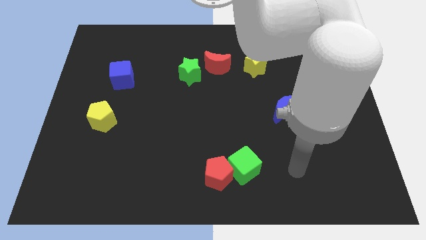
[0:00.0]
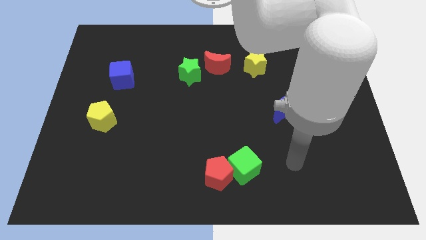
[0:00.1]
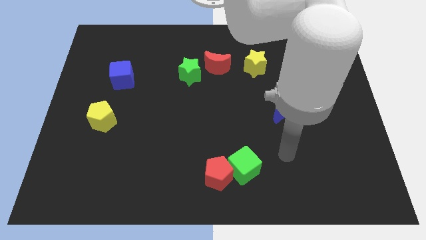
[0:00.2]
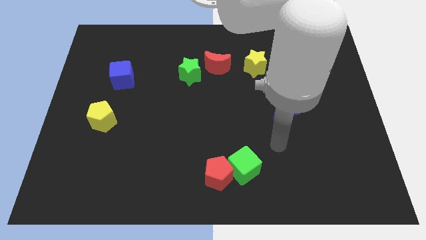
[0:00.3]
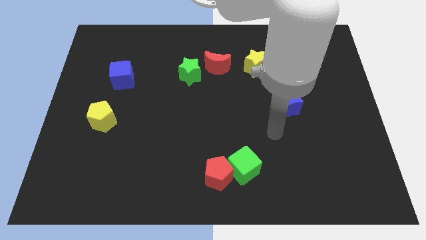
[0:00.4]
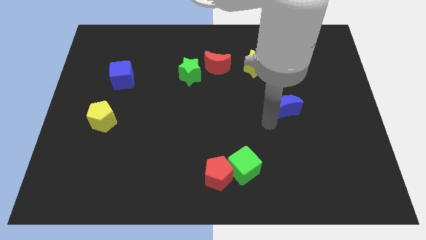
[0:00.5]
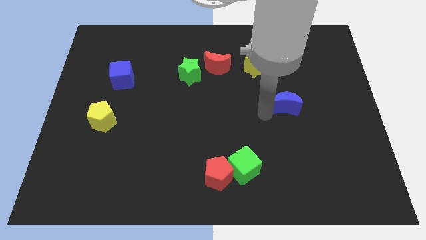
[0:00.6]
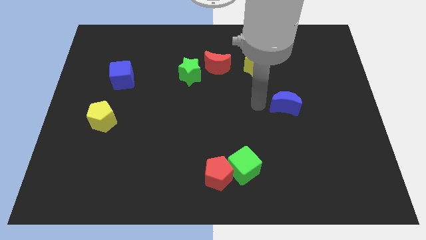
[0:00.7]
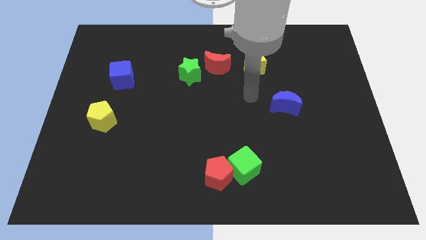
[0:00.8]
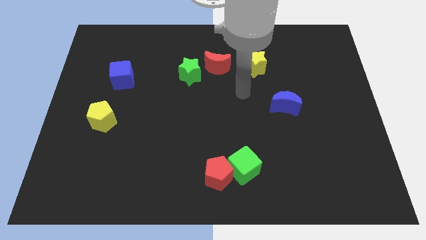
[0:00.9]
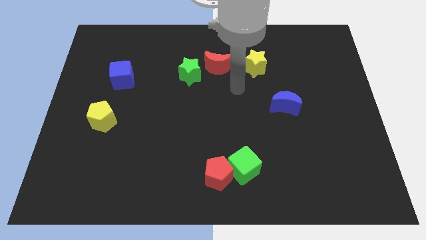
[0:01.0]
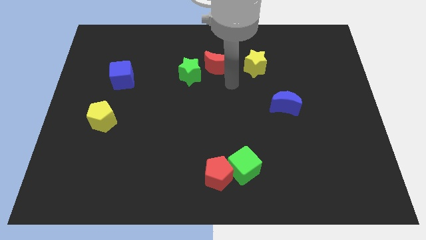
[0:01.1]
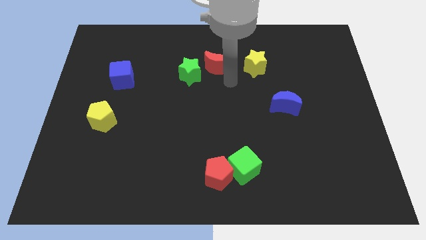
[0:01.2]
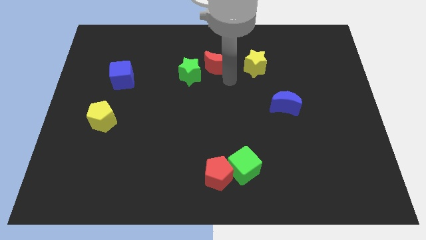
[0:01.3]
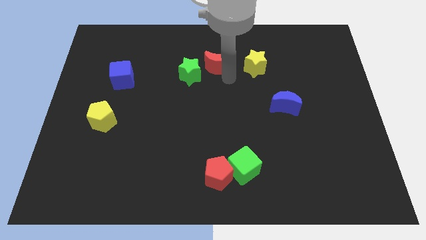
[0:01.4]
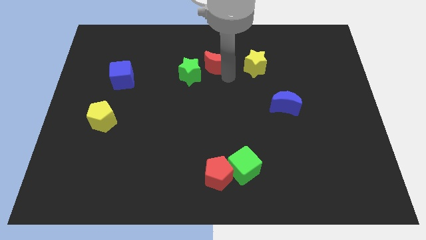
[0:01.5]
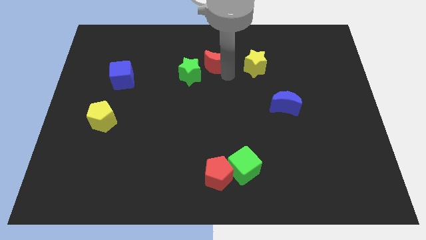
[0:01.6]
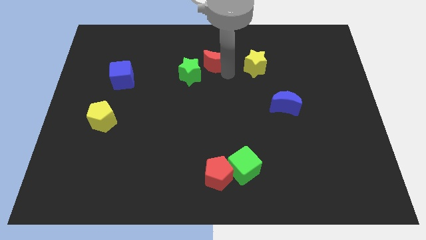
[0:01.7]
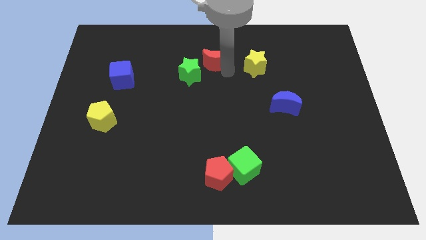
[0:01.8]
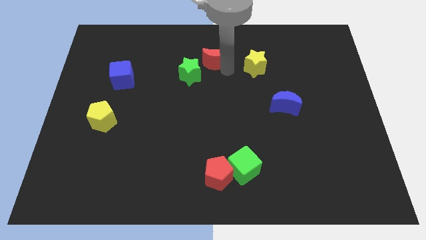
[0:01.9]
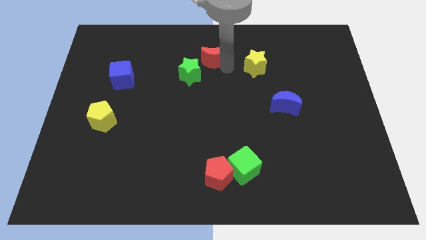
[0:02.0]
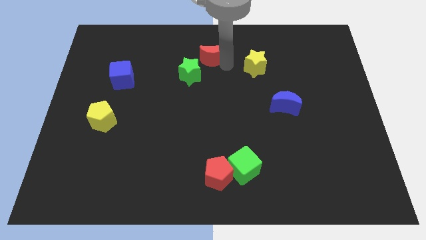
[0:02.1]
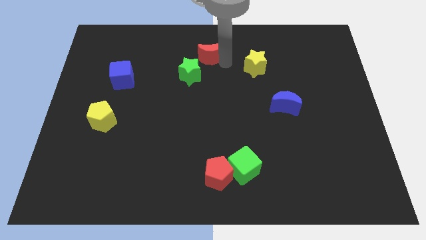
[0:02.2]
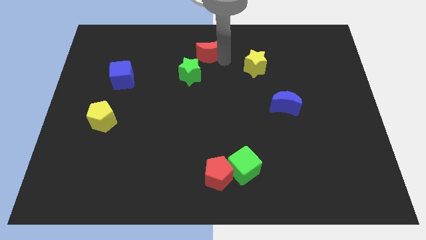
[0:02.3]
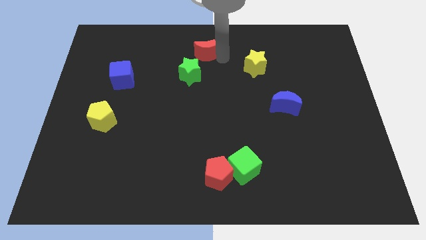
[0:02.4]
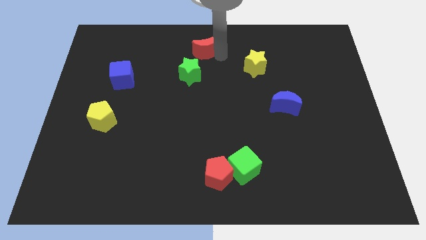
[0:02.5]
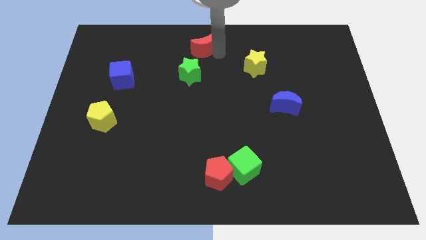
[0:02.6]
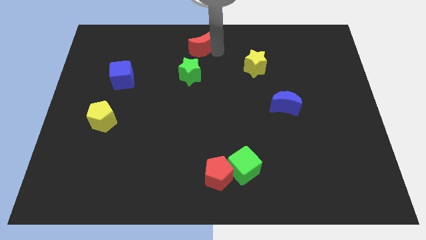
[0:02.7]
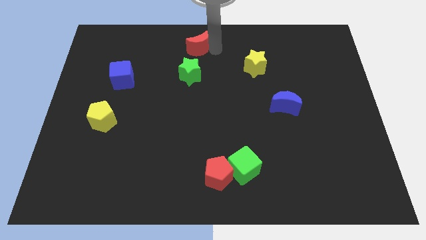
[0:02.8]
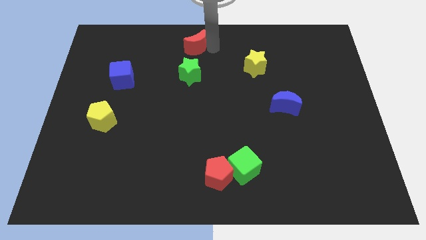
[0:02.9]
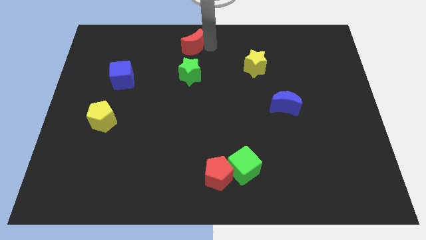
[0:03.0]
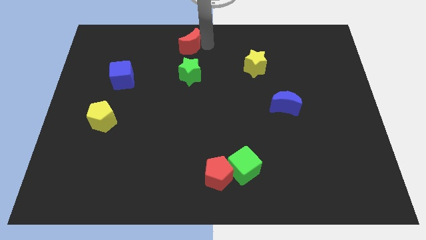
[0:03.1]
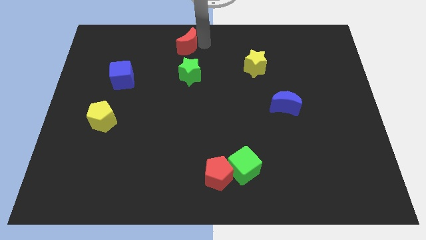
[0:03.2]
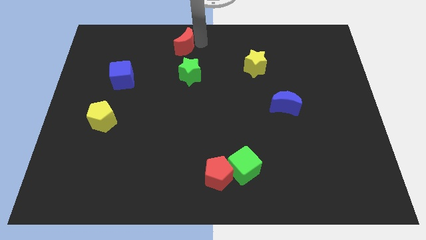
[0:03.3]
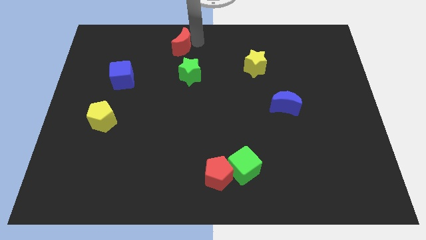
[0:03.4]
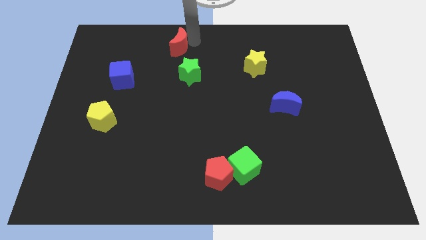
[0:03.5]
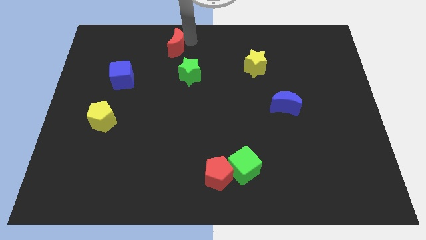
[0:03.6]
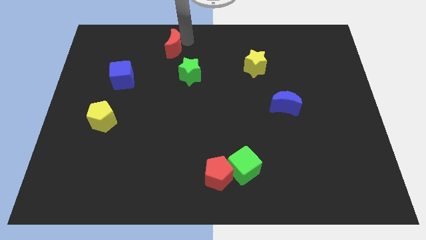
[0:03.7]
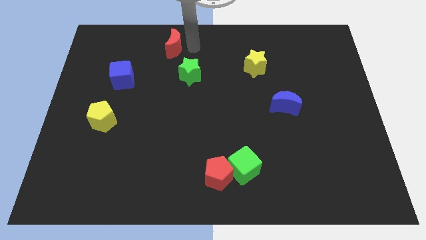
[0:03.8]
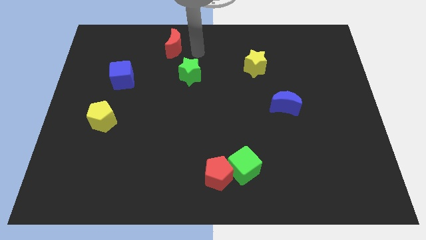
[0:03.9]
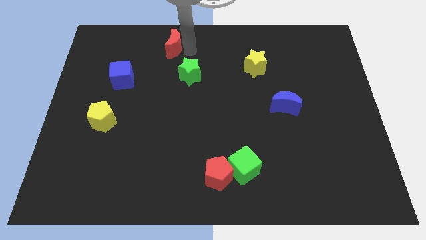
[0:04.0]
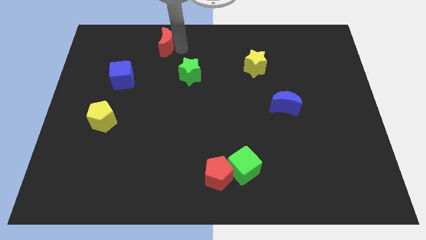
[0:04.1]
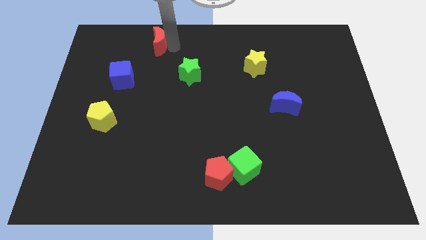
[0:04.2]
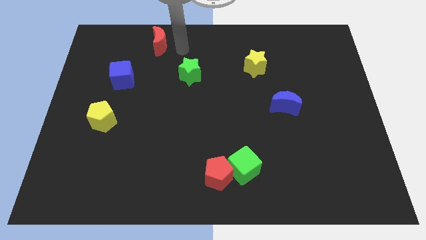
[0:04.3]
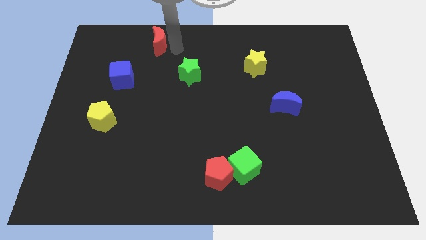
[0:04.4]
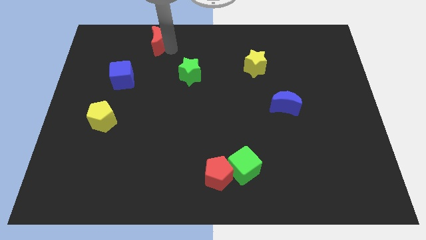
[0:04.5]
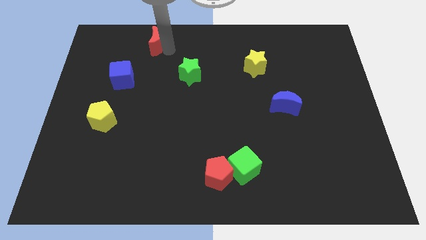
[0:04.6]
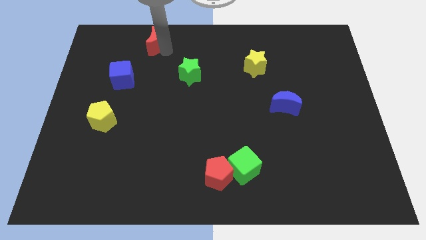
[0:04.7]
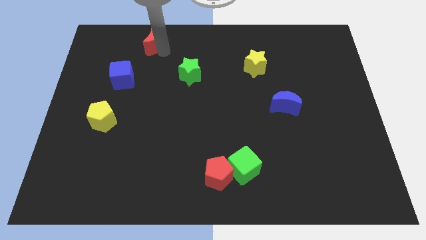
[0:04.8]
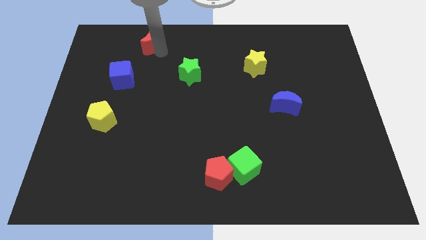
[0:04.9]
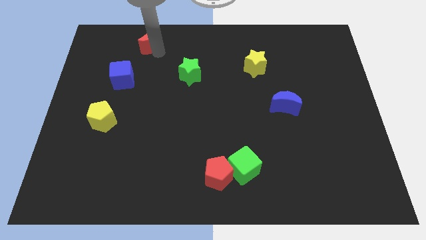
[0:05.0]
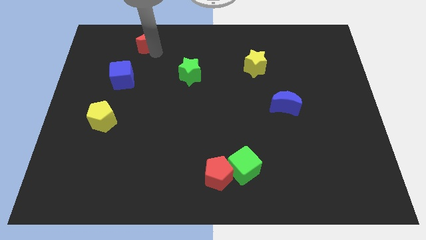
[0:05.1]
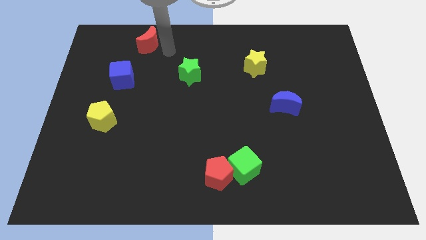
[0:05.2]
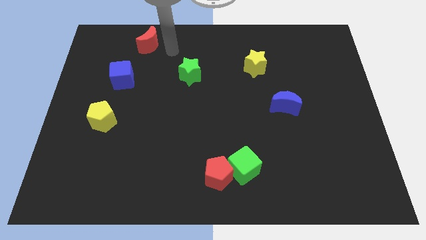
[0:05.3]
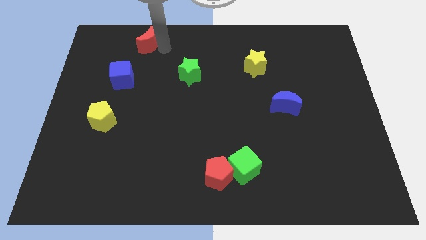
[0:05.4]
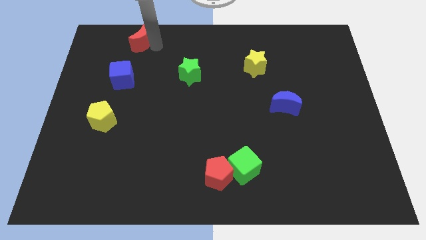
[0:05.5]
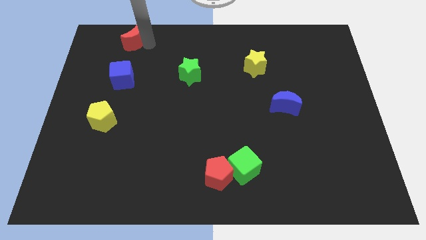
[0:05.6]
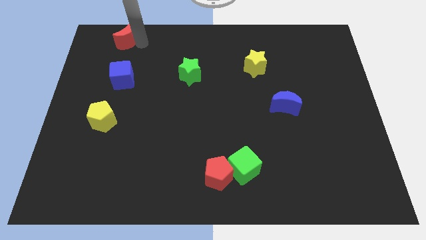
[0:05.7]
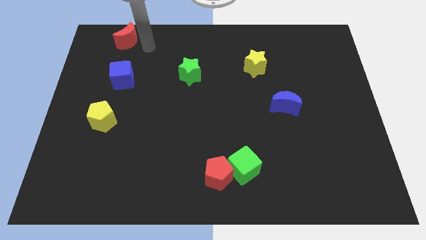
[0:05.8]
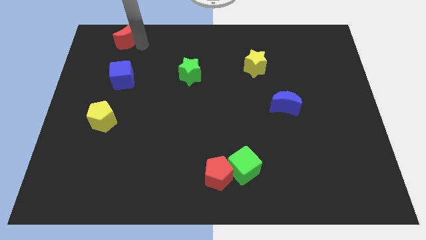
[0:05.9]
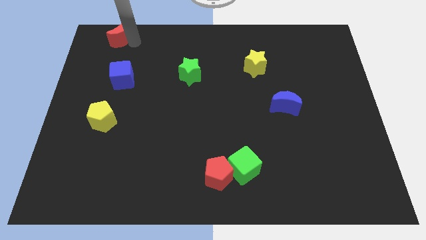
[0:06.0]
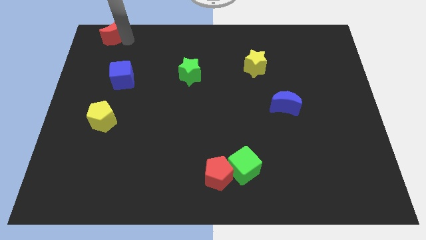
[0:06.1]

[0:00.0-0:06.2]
push the red moon to the upper left corner
